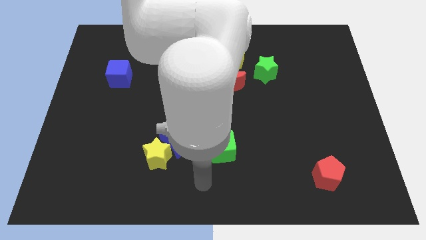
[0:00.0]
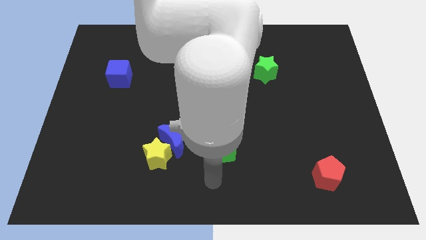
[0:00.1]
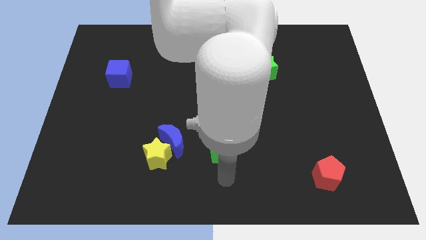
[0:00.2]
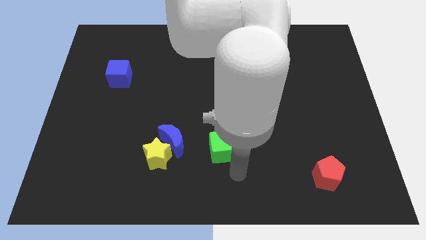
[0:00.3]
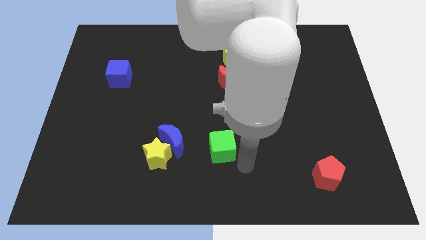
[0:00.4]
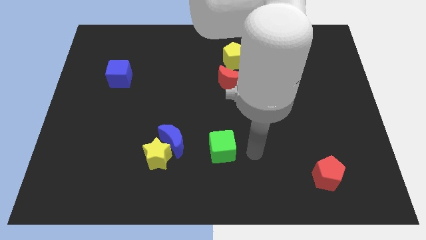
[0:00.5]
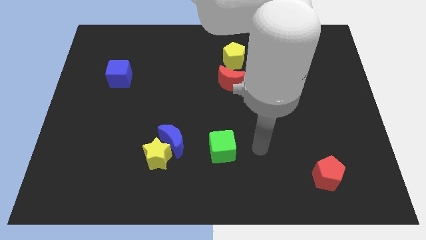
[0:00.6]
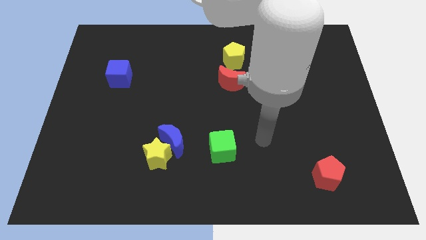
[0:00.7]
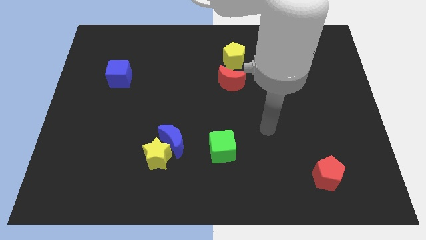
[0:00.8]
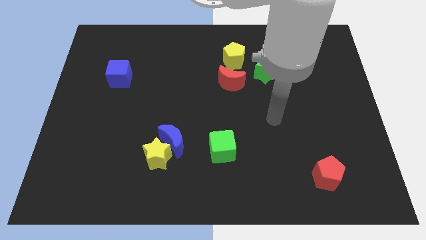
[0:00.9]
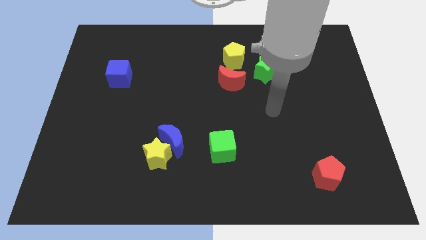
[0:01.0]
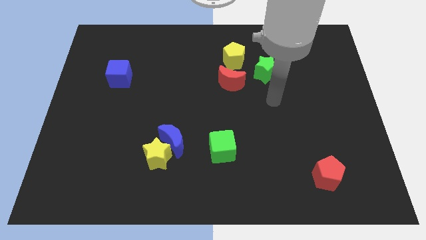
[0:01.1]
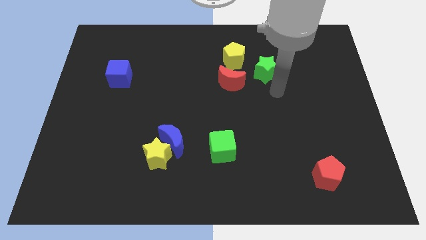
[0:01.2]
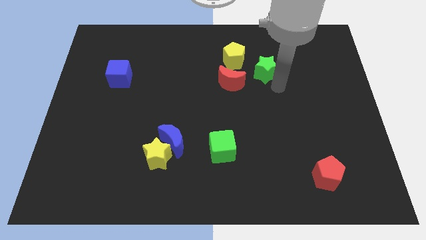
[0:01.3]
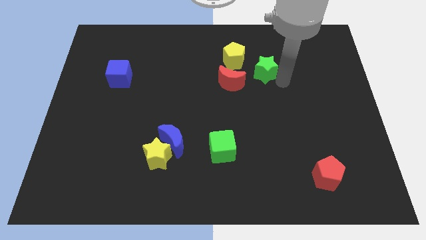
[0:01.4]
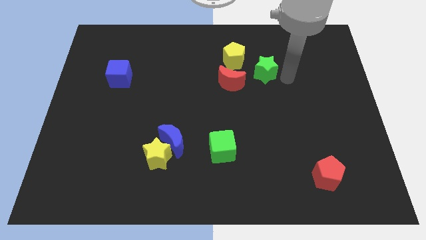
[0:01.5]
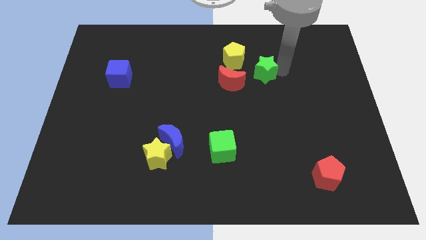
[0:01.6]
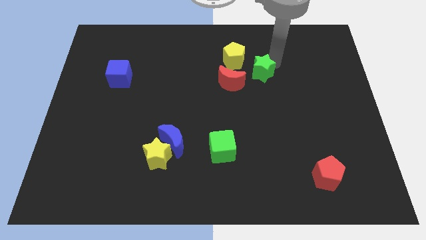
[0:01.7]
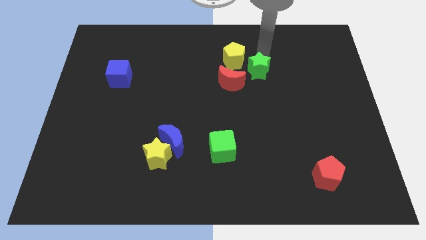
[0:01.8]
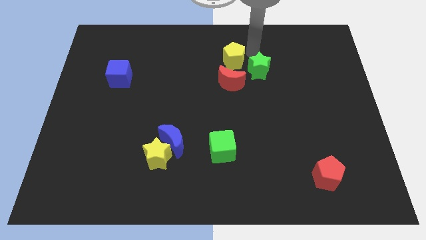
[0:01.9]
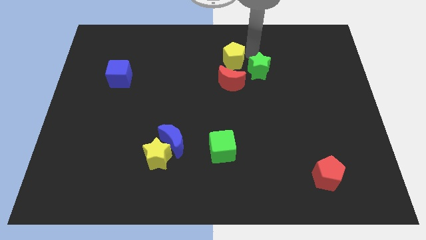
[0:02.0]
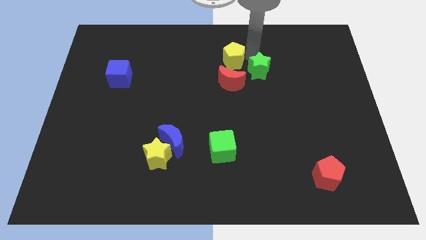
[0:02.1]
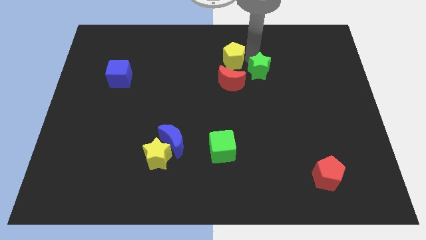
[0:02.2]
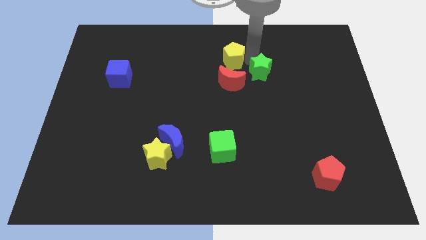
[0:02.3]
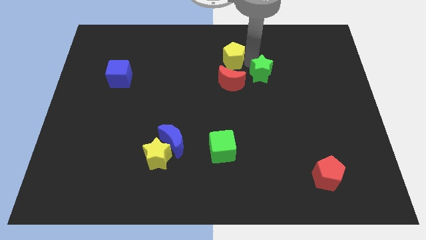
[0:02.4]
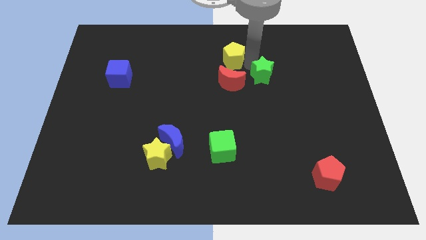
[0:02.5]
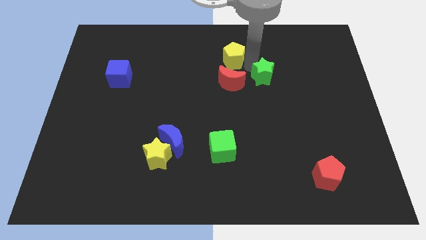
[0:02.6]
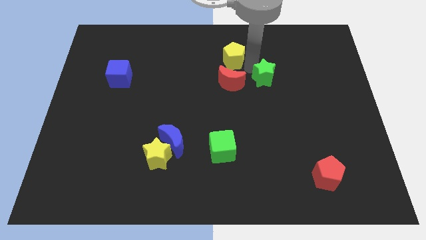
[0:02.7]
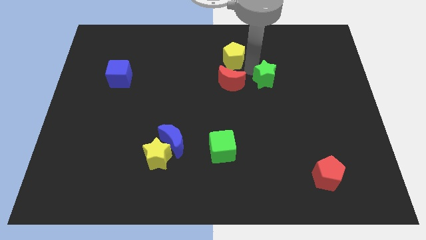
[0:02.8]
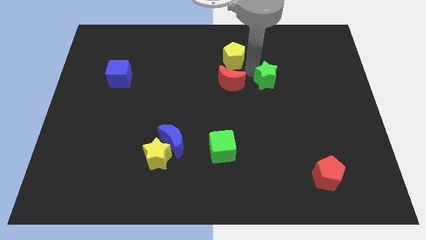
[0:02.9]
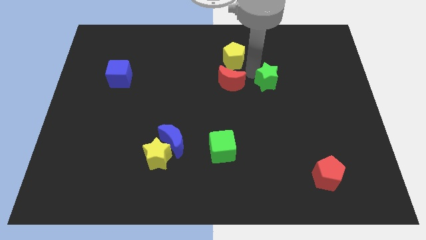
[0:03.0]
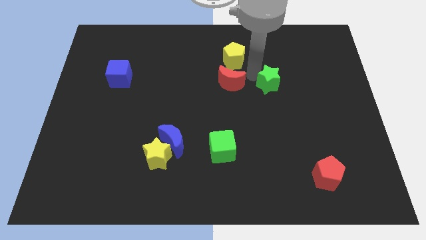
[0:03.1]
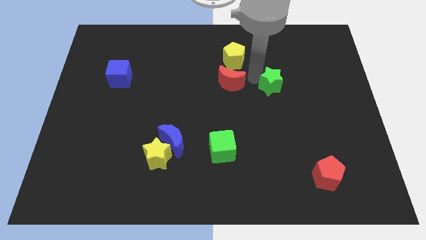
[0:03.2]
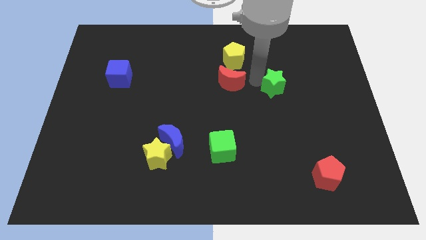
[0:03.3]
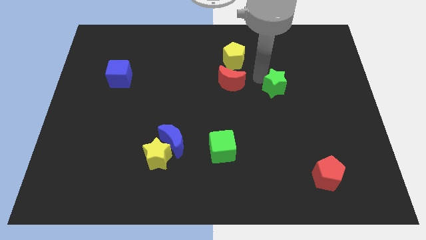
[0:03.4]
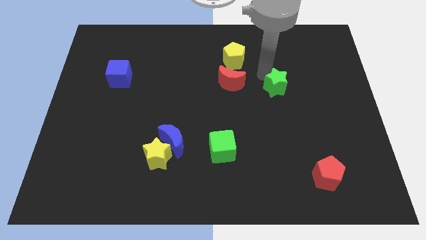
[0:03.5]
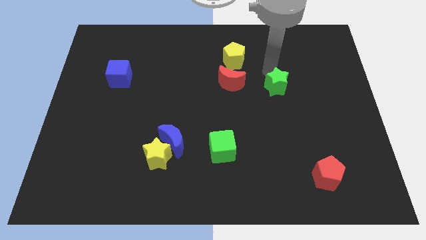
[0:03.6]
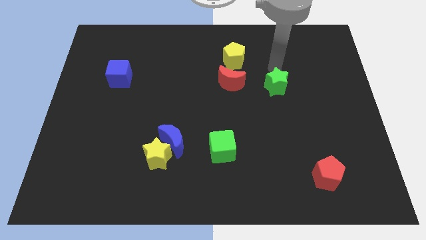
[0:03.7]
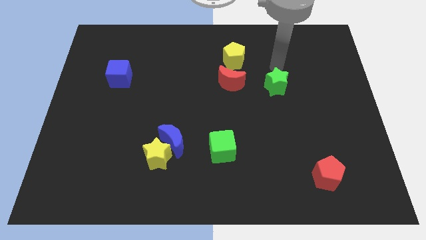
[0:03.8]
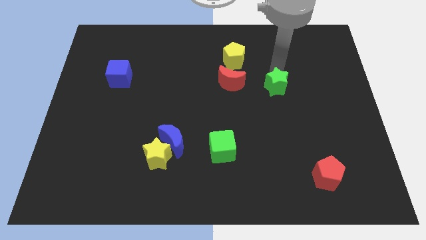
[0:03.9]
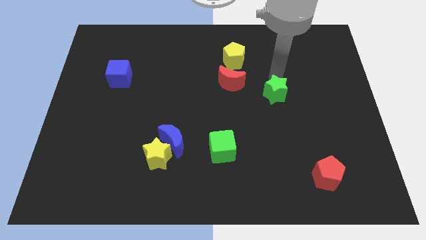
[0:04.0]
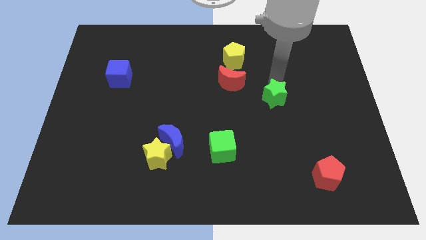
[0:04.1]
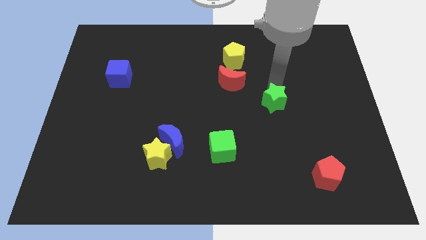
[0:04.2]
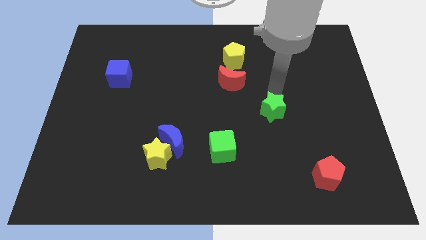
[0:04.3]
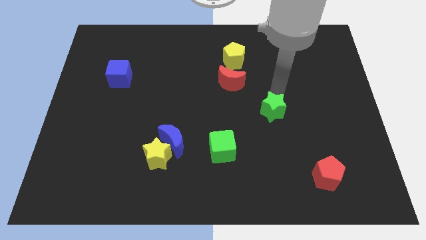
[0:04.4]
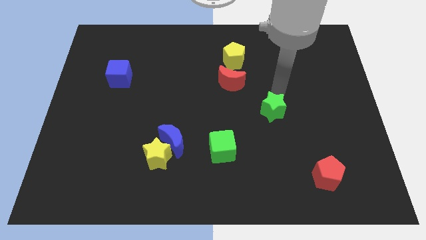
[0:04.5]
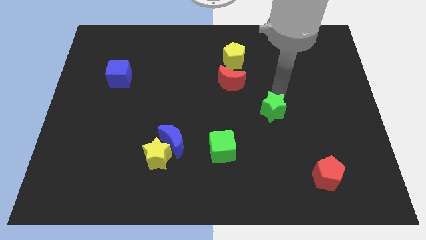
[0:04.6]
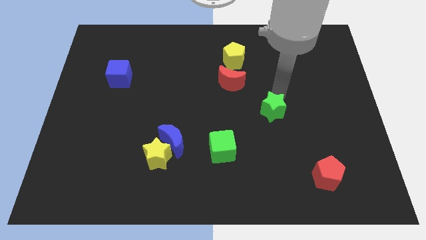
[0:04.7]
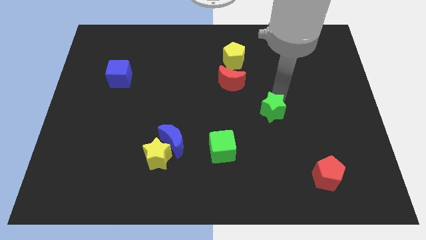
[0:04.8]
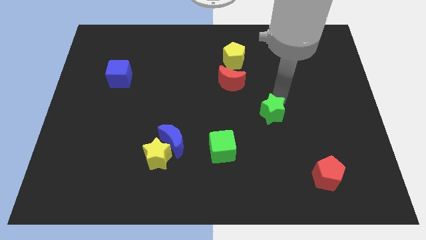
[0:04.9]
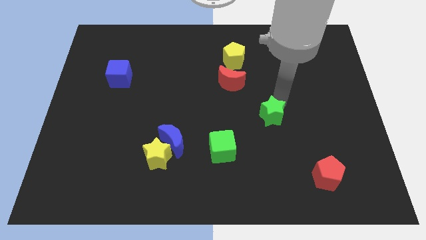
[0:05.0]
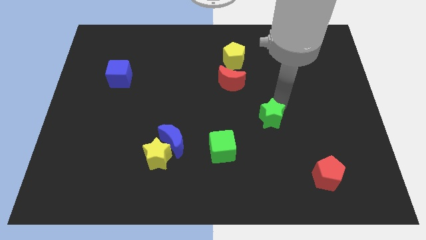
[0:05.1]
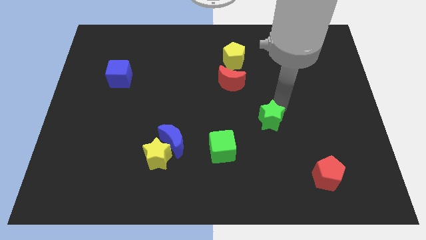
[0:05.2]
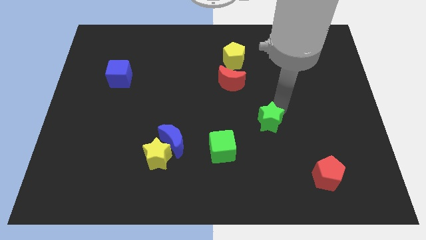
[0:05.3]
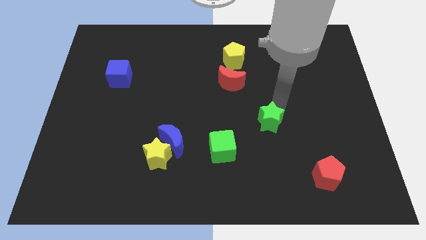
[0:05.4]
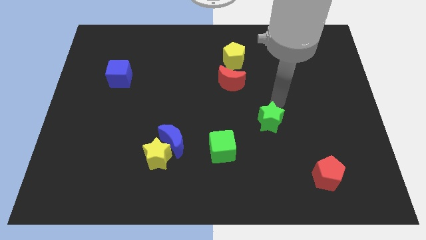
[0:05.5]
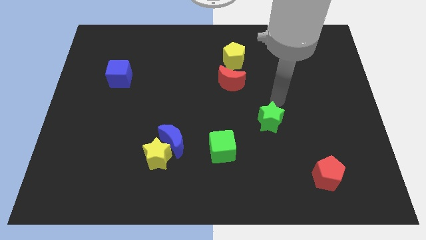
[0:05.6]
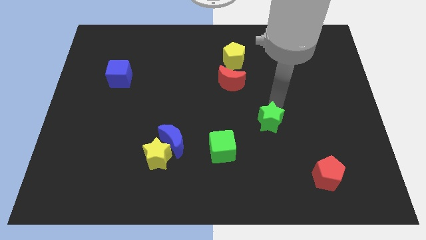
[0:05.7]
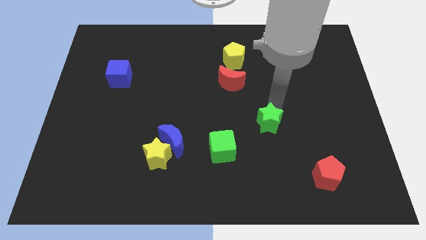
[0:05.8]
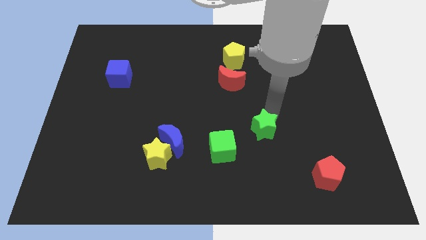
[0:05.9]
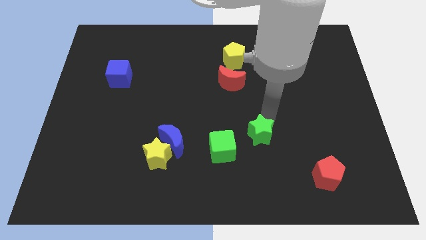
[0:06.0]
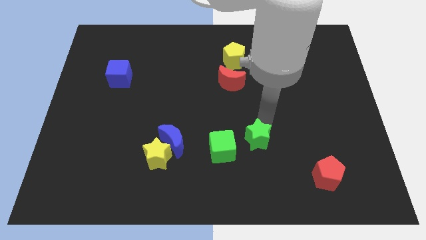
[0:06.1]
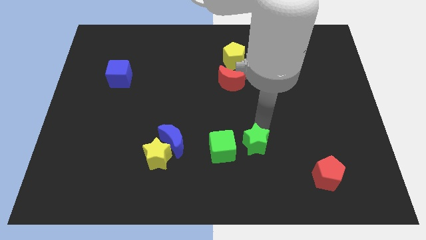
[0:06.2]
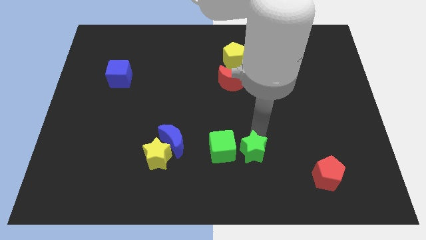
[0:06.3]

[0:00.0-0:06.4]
push the green star diagonally down and to the right of the green cube

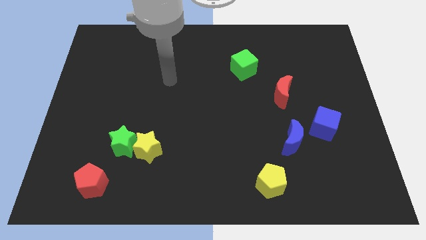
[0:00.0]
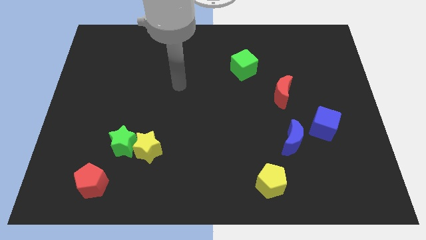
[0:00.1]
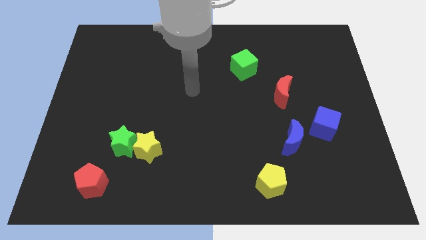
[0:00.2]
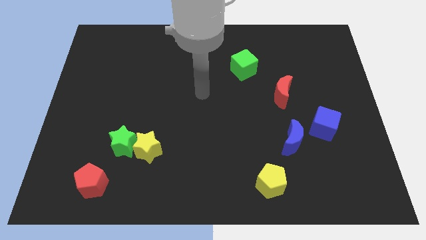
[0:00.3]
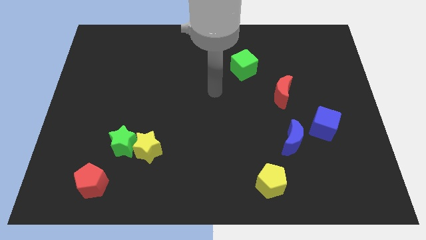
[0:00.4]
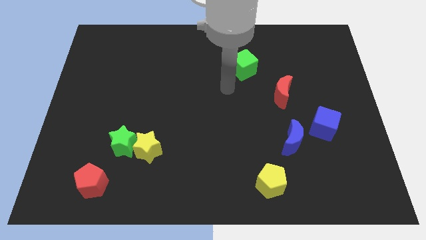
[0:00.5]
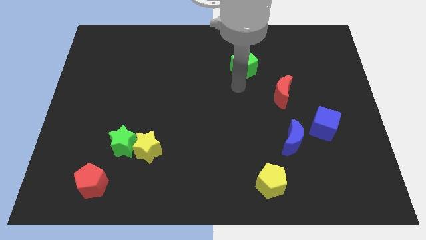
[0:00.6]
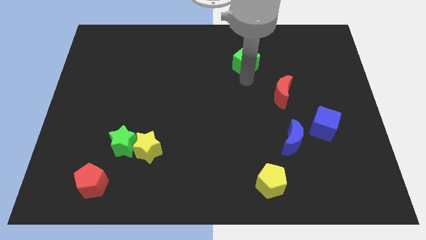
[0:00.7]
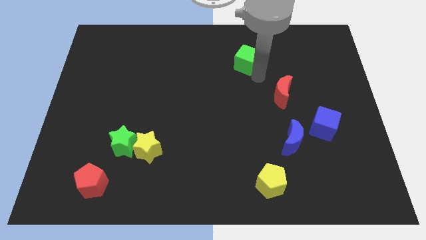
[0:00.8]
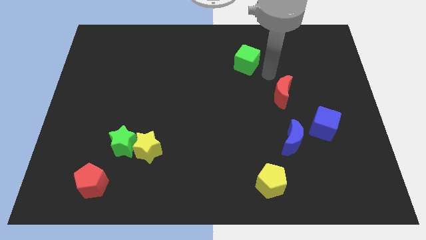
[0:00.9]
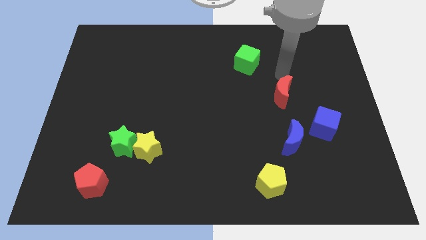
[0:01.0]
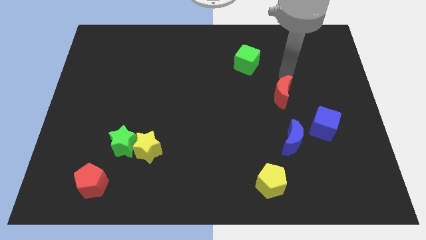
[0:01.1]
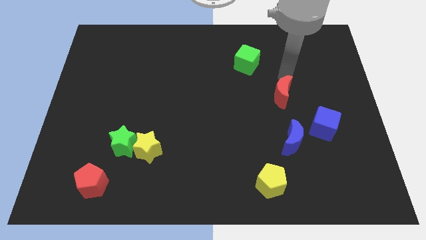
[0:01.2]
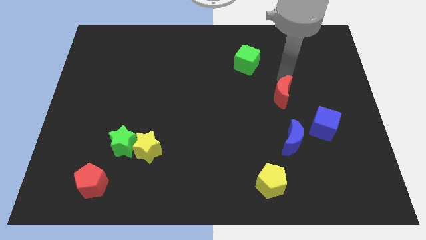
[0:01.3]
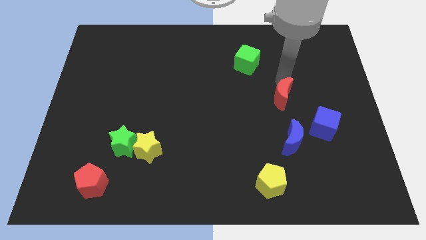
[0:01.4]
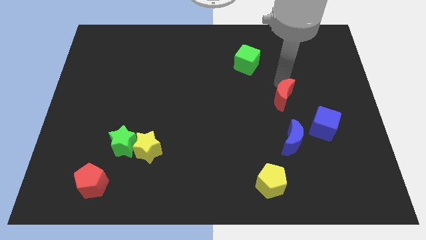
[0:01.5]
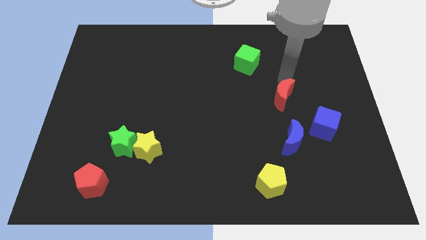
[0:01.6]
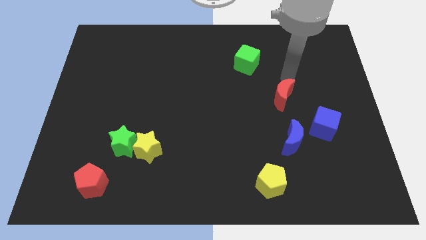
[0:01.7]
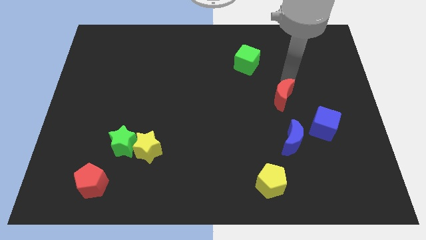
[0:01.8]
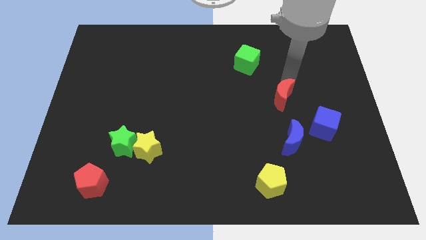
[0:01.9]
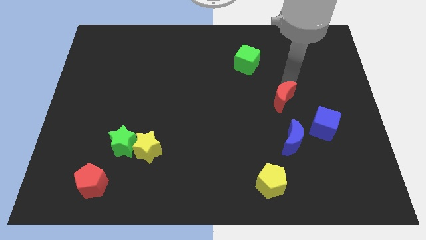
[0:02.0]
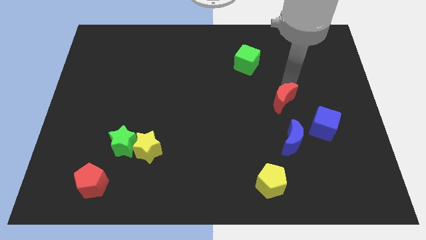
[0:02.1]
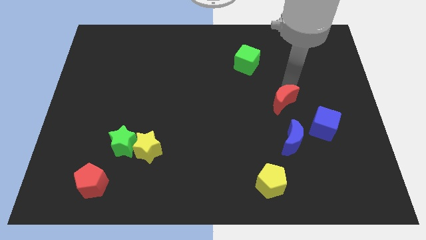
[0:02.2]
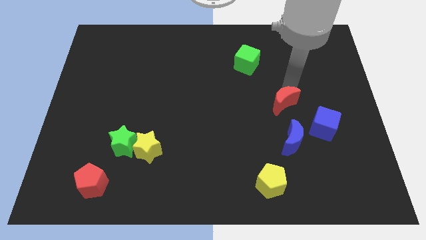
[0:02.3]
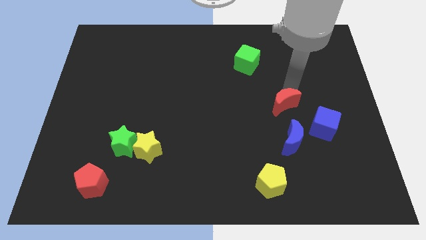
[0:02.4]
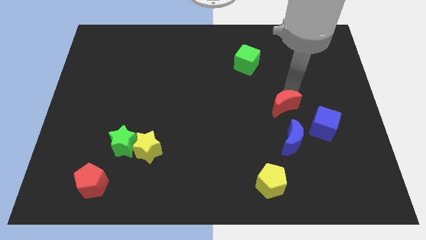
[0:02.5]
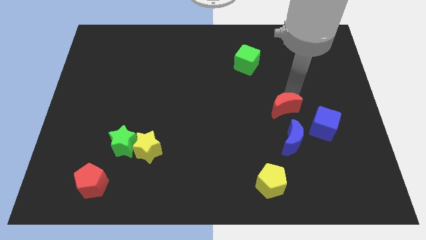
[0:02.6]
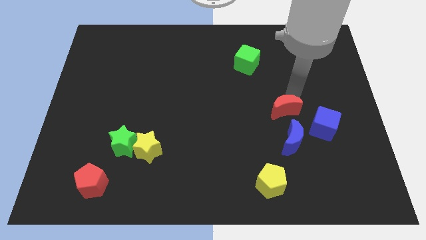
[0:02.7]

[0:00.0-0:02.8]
put the red moon just left of the blue cube
